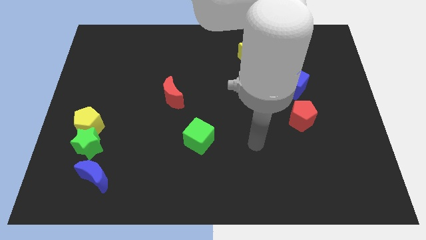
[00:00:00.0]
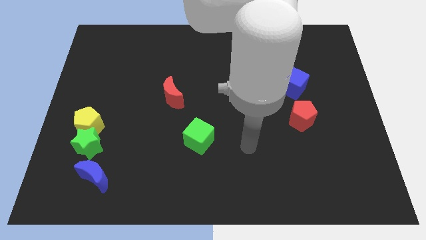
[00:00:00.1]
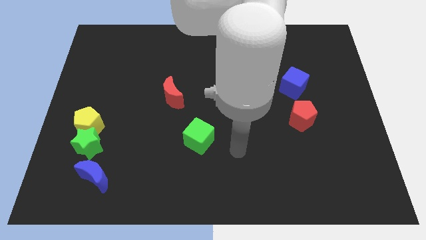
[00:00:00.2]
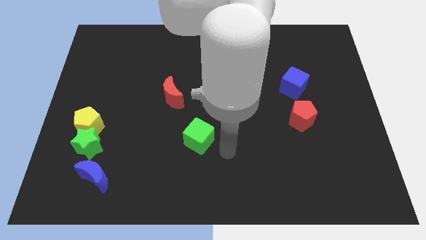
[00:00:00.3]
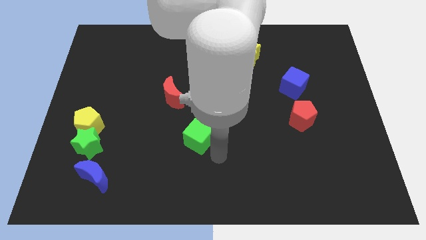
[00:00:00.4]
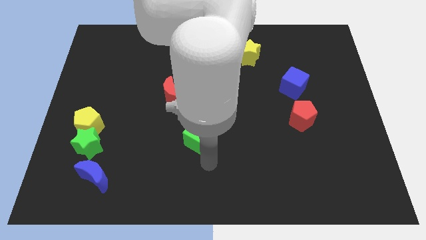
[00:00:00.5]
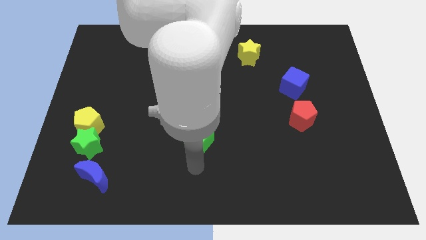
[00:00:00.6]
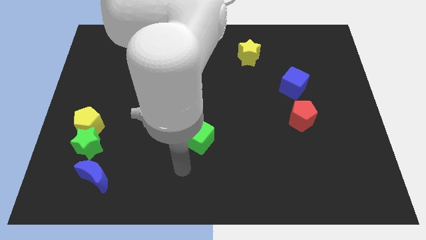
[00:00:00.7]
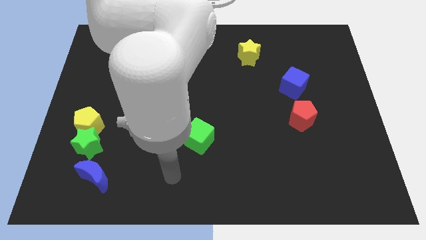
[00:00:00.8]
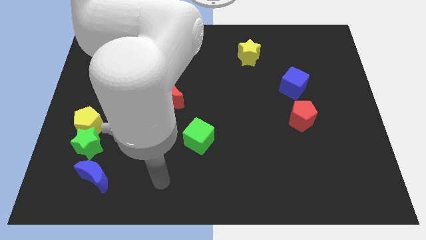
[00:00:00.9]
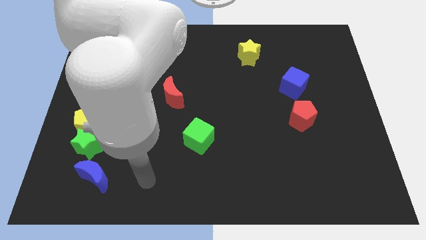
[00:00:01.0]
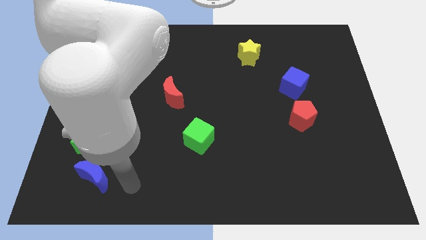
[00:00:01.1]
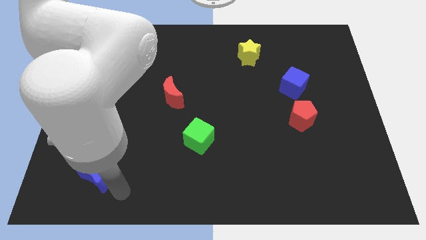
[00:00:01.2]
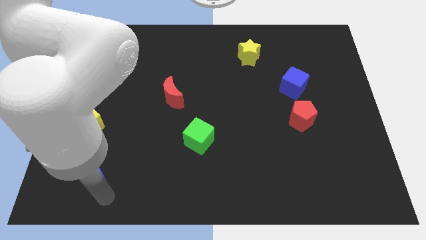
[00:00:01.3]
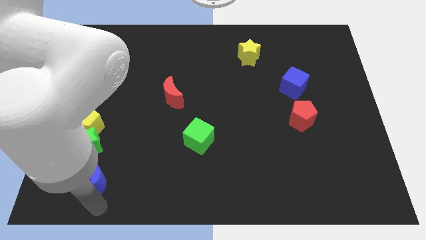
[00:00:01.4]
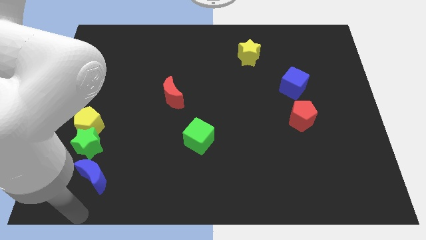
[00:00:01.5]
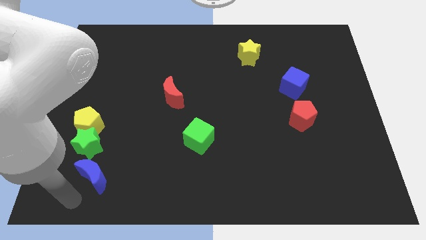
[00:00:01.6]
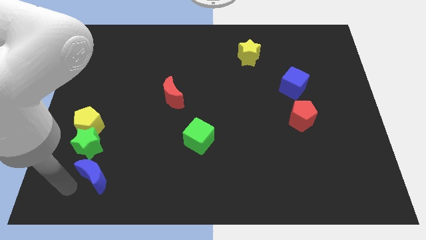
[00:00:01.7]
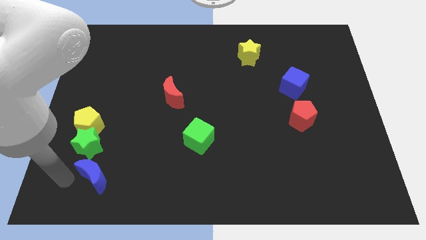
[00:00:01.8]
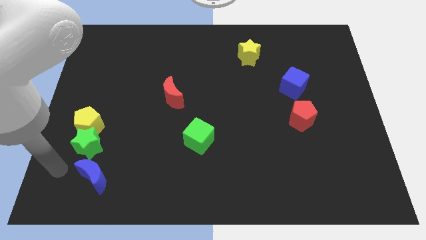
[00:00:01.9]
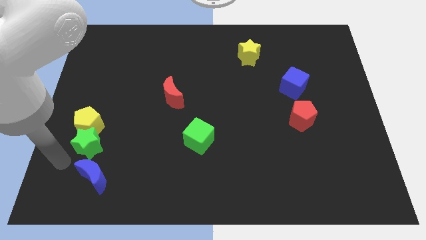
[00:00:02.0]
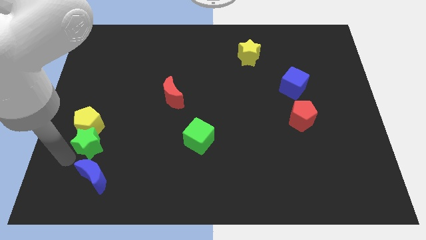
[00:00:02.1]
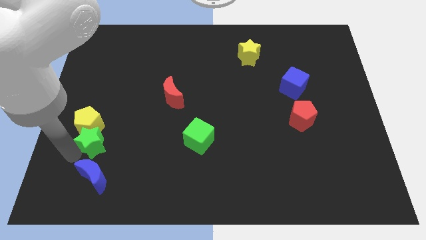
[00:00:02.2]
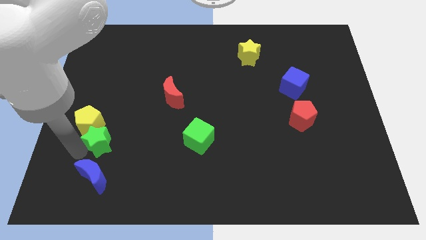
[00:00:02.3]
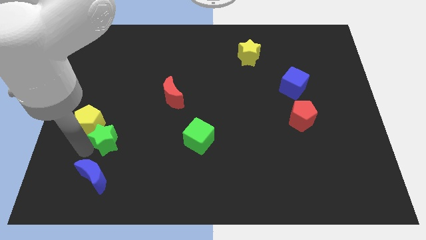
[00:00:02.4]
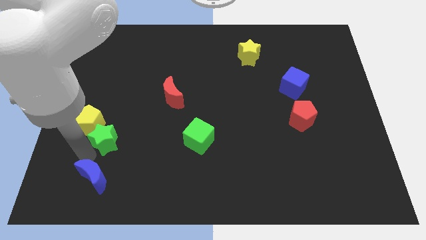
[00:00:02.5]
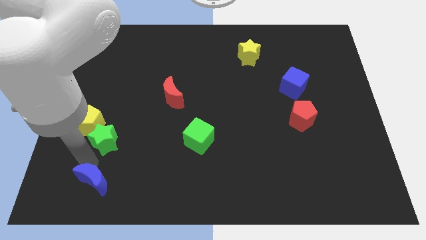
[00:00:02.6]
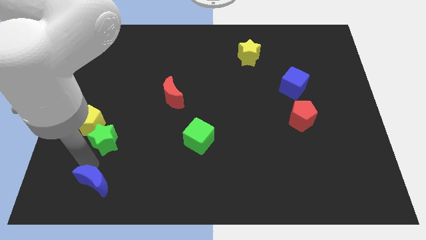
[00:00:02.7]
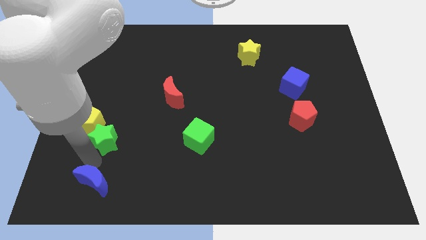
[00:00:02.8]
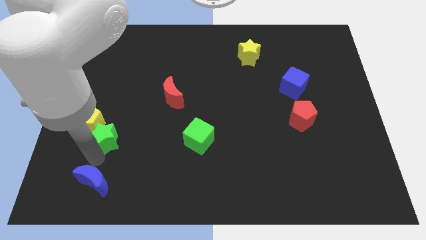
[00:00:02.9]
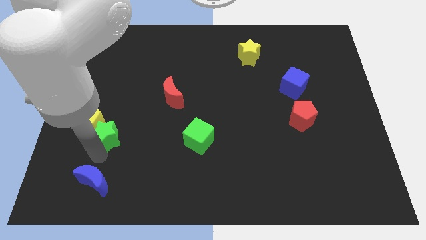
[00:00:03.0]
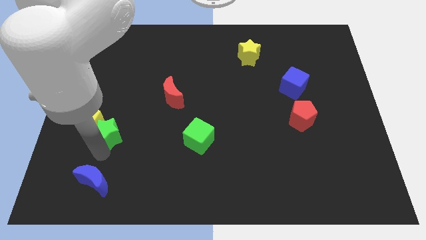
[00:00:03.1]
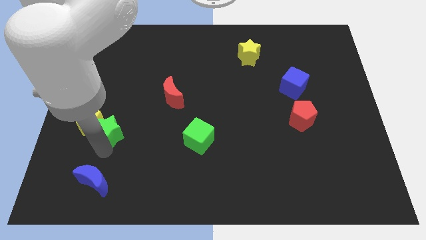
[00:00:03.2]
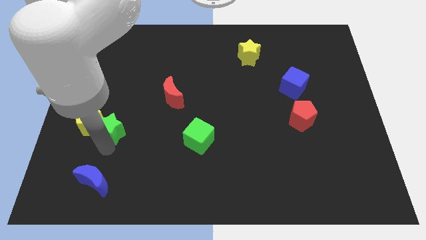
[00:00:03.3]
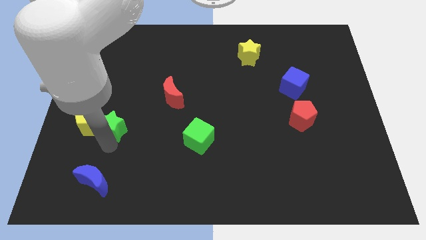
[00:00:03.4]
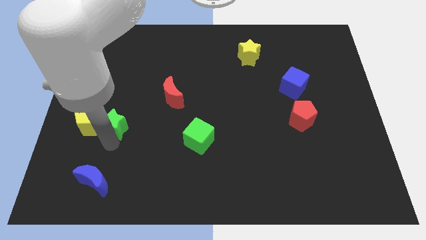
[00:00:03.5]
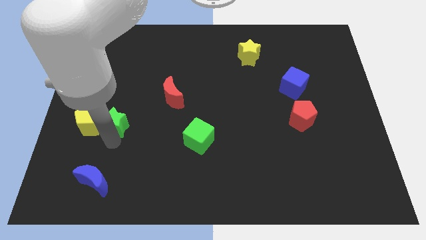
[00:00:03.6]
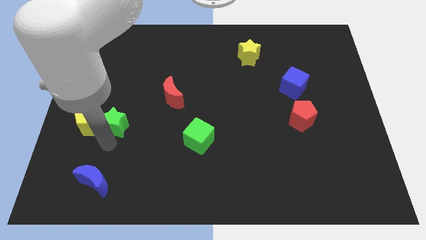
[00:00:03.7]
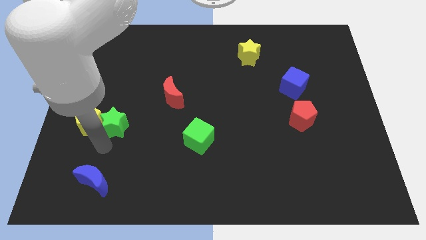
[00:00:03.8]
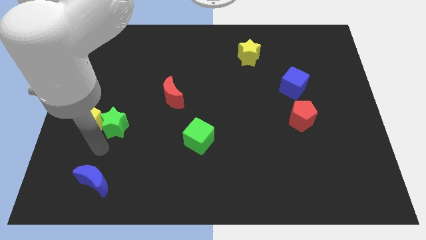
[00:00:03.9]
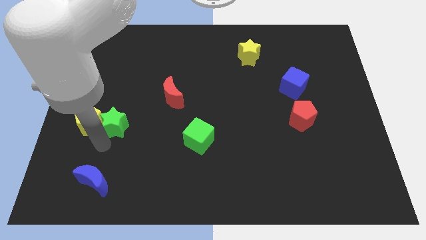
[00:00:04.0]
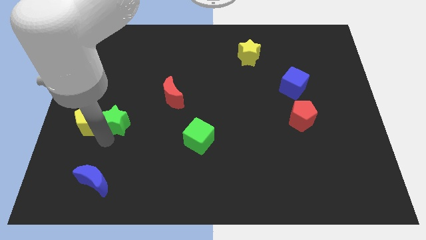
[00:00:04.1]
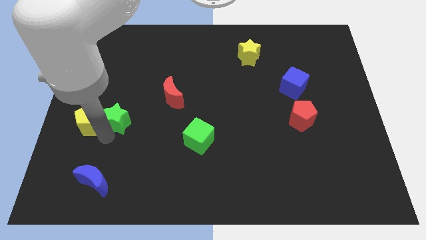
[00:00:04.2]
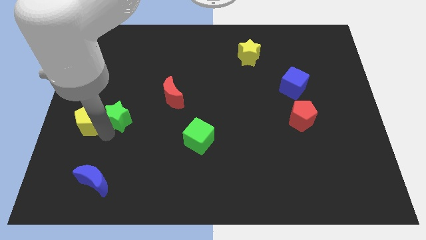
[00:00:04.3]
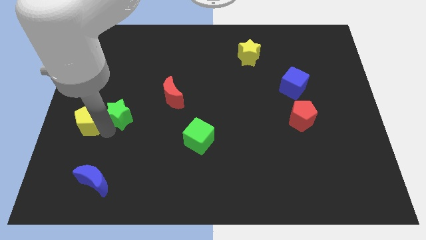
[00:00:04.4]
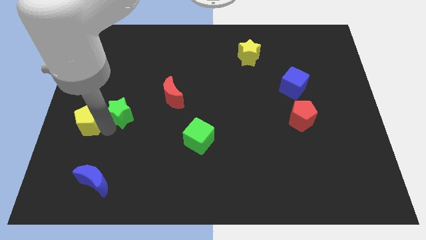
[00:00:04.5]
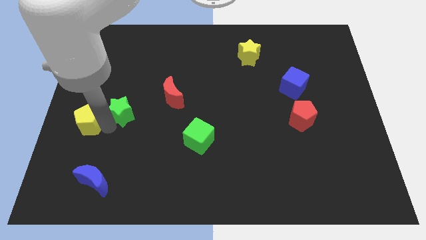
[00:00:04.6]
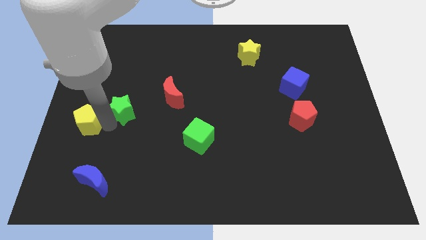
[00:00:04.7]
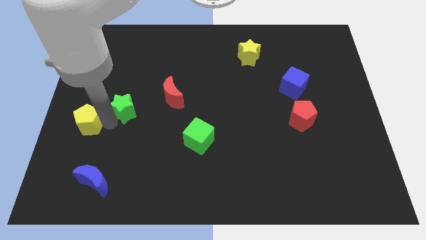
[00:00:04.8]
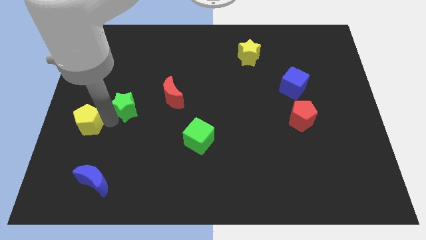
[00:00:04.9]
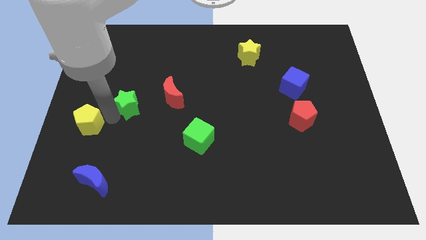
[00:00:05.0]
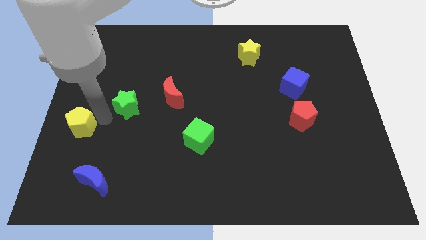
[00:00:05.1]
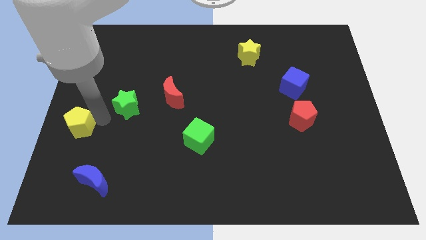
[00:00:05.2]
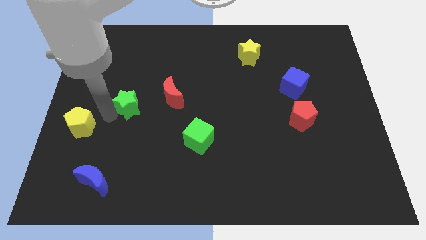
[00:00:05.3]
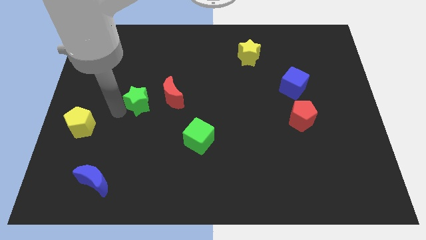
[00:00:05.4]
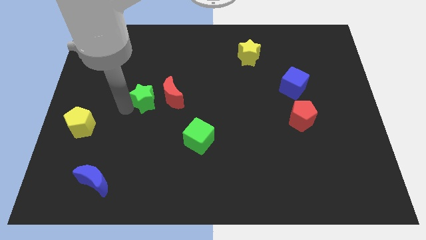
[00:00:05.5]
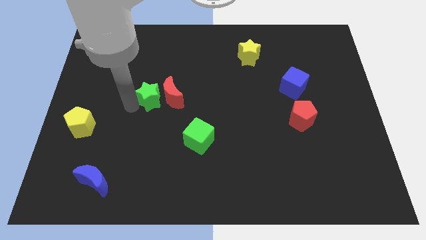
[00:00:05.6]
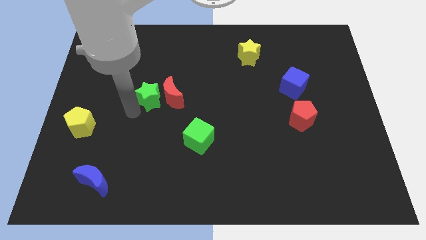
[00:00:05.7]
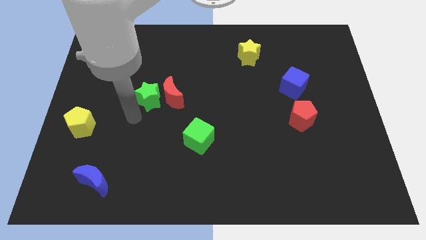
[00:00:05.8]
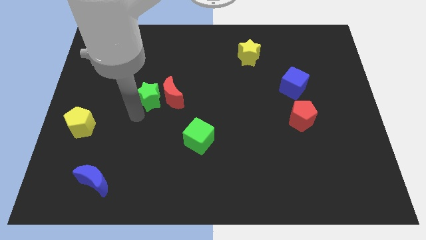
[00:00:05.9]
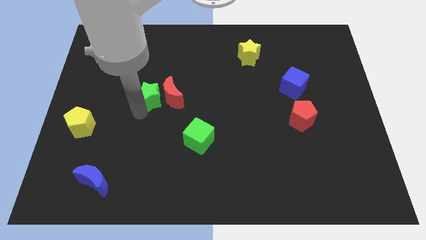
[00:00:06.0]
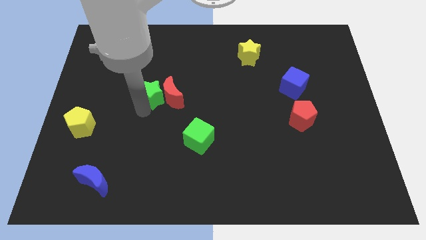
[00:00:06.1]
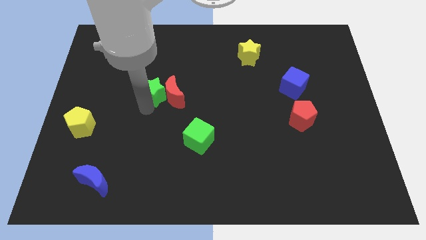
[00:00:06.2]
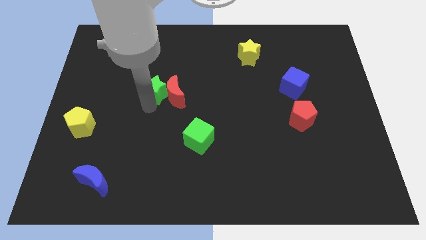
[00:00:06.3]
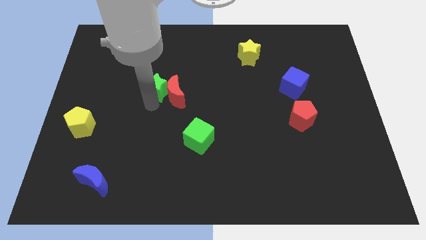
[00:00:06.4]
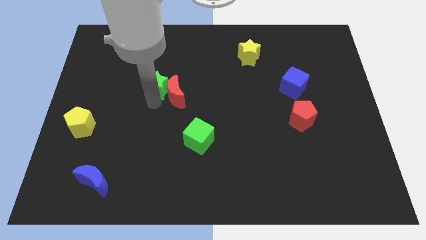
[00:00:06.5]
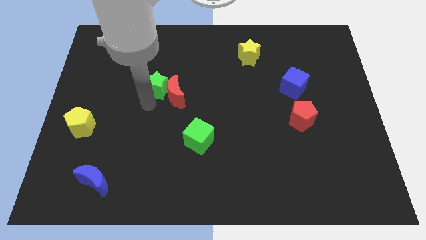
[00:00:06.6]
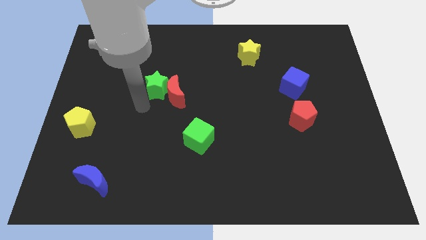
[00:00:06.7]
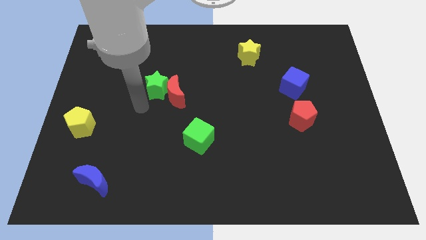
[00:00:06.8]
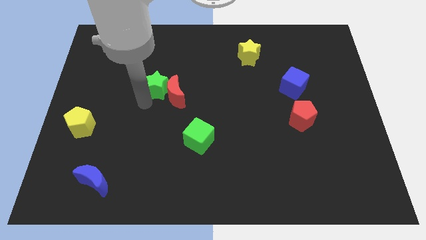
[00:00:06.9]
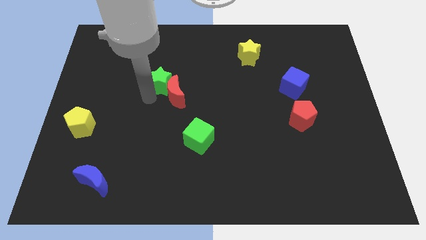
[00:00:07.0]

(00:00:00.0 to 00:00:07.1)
slide the green star above the red moon
